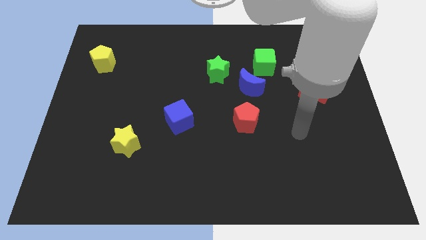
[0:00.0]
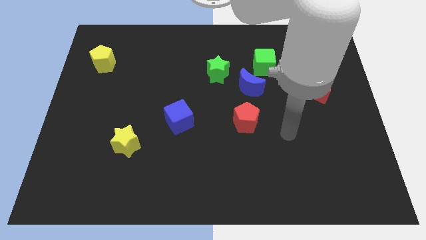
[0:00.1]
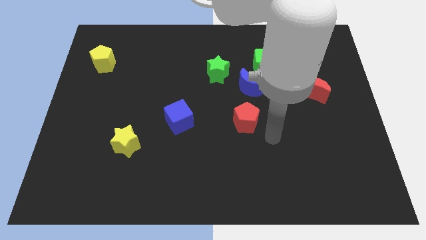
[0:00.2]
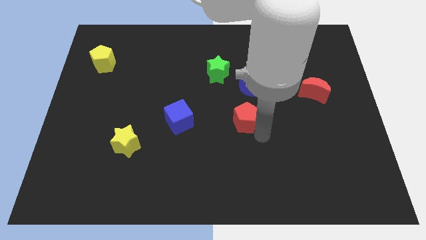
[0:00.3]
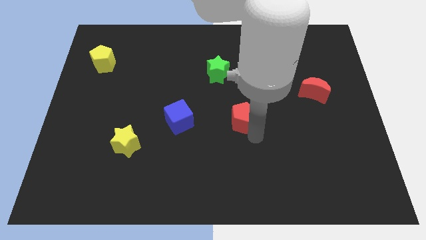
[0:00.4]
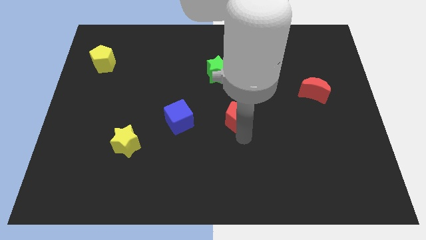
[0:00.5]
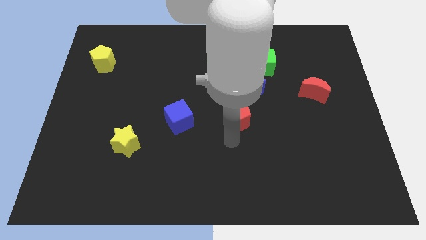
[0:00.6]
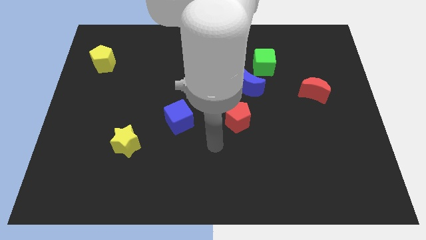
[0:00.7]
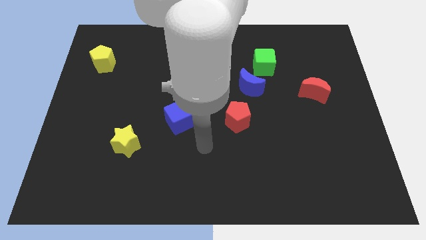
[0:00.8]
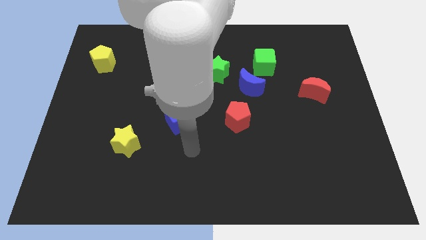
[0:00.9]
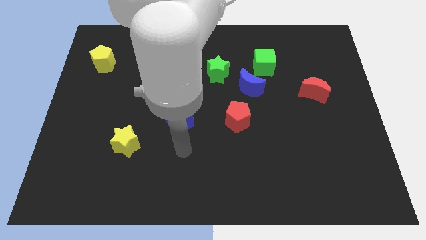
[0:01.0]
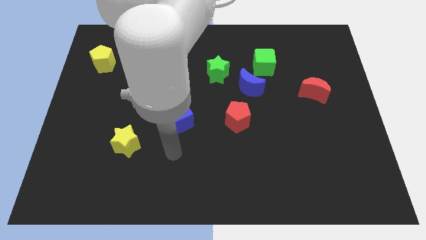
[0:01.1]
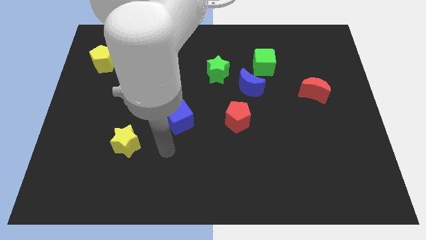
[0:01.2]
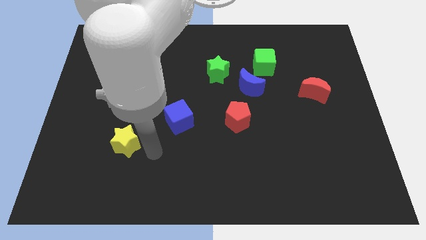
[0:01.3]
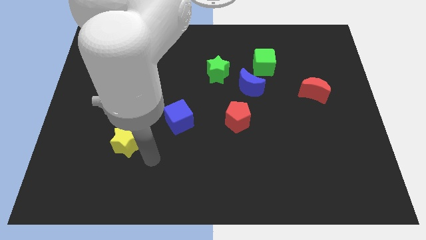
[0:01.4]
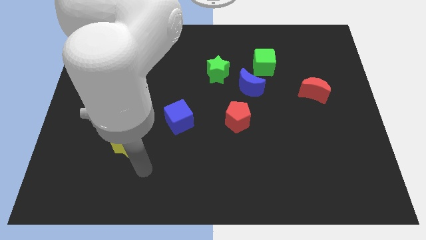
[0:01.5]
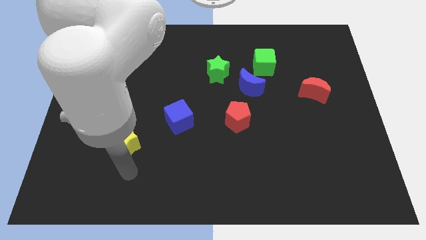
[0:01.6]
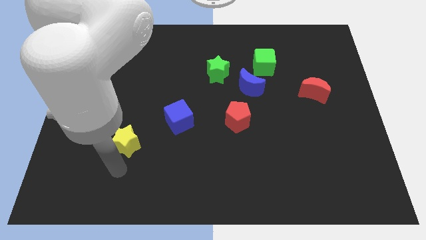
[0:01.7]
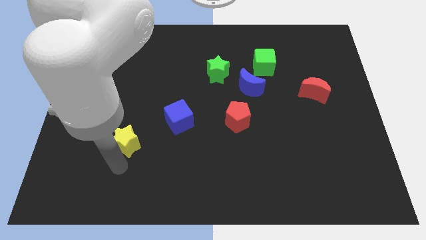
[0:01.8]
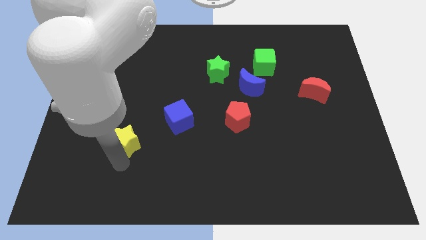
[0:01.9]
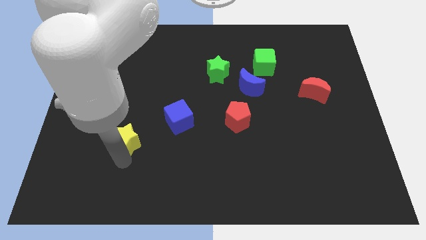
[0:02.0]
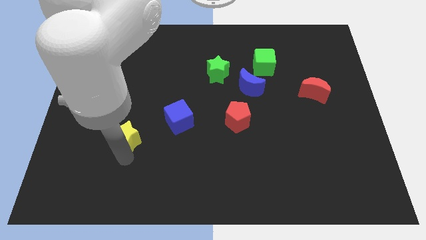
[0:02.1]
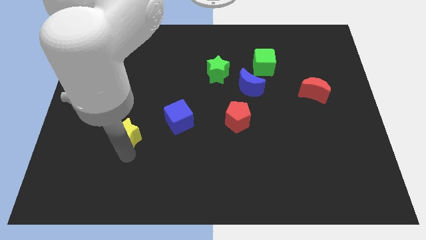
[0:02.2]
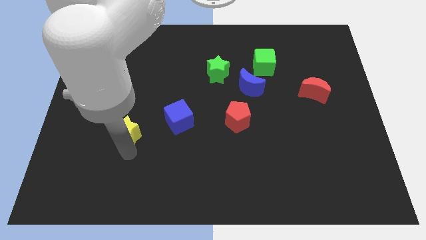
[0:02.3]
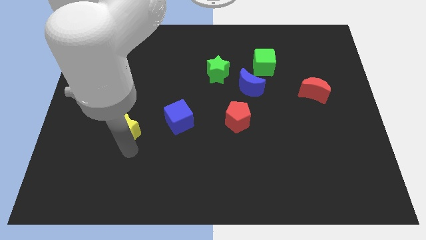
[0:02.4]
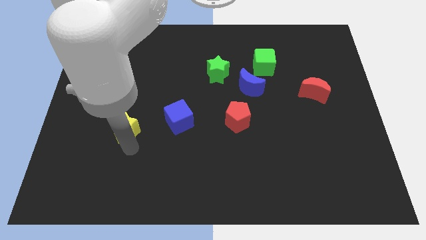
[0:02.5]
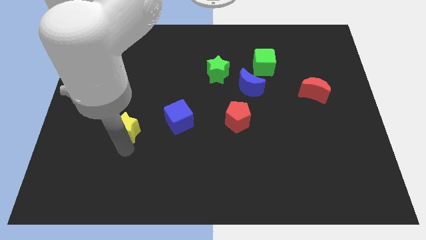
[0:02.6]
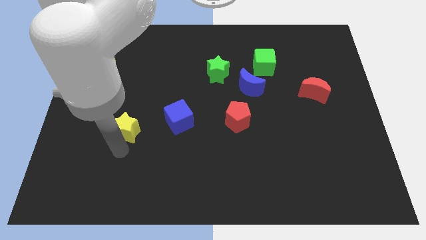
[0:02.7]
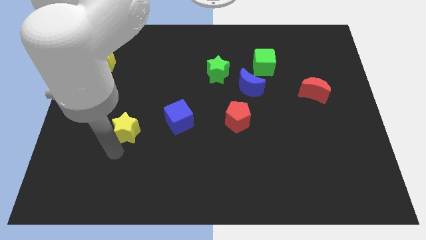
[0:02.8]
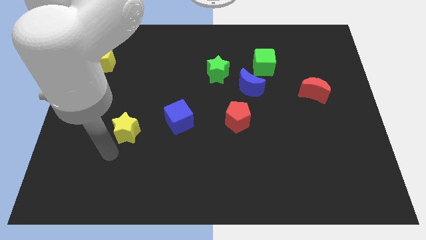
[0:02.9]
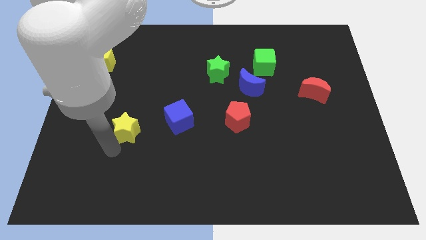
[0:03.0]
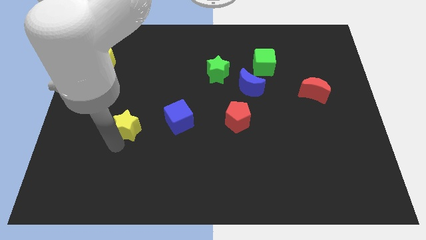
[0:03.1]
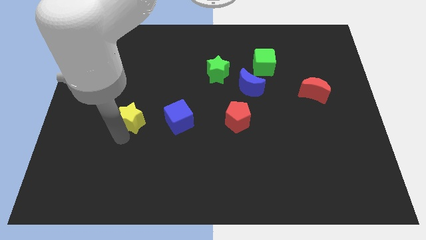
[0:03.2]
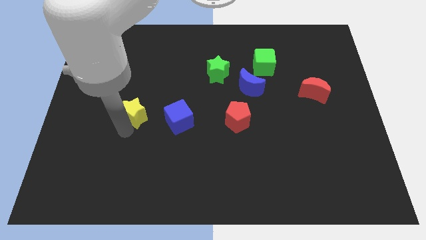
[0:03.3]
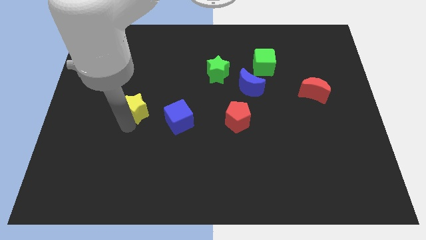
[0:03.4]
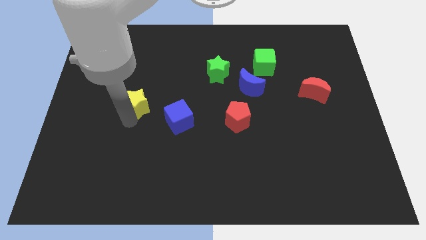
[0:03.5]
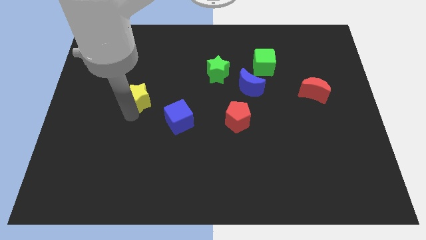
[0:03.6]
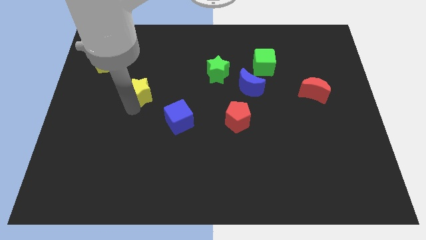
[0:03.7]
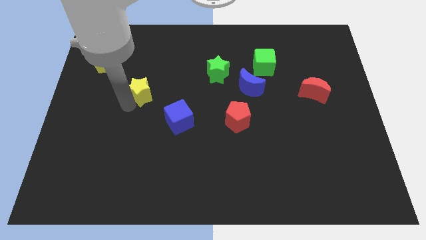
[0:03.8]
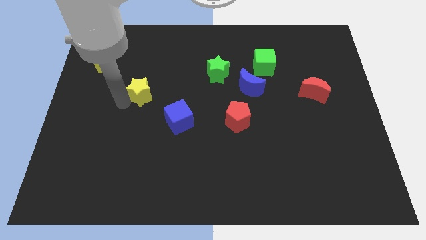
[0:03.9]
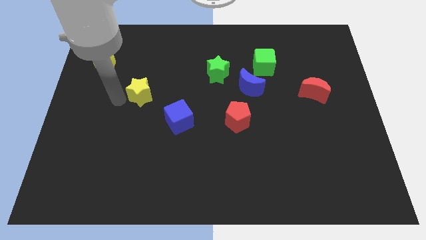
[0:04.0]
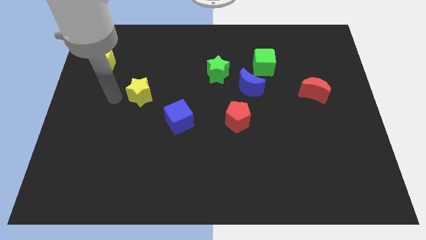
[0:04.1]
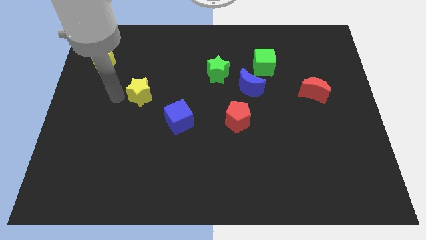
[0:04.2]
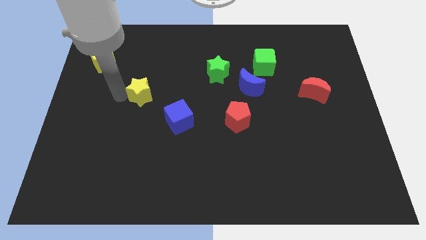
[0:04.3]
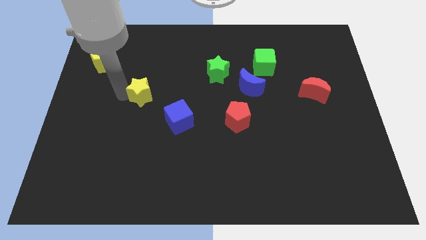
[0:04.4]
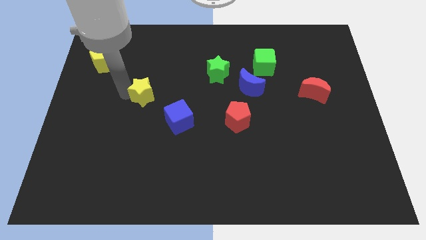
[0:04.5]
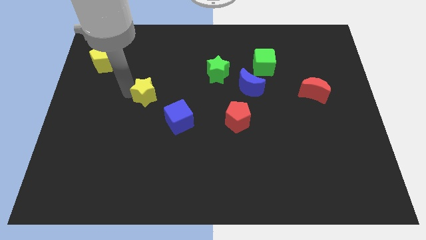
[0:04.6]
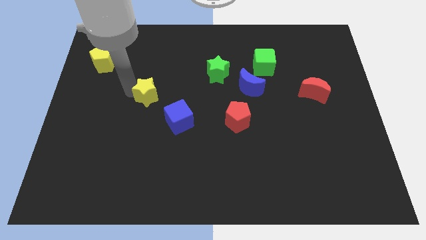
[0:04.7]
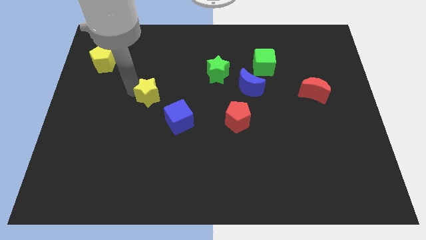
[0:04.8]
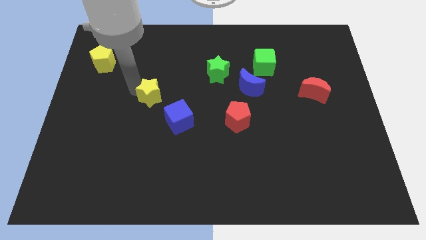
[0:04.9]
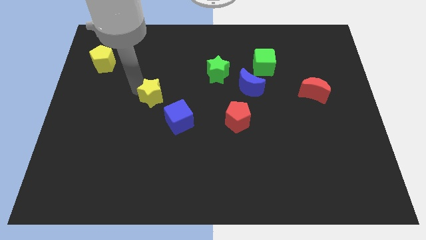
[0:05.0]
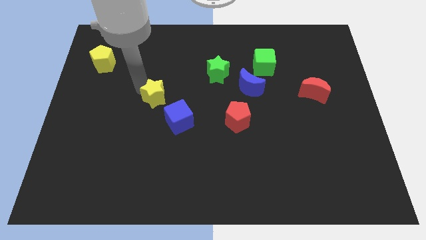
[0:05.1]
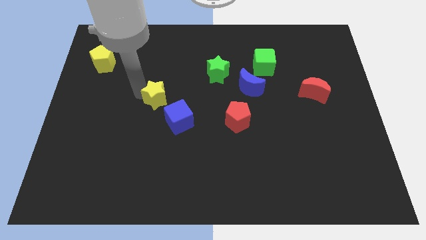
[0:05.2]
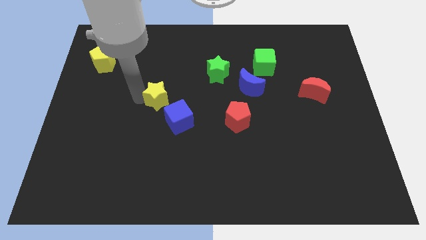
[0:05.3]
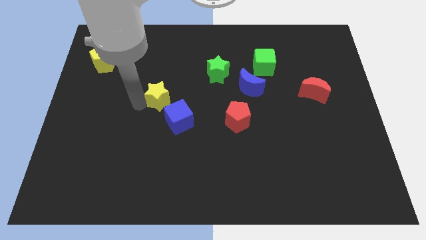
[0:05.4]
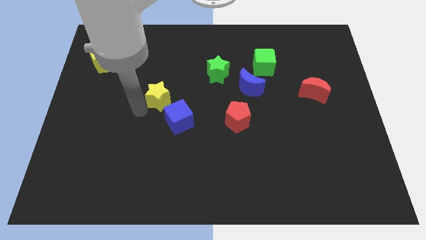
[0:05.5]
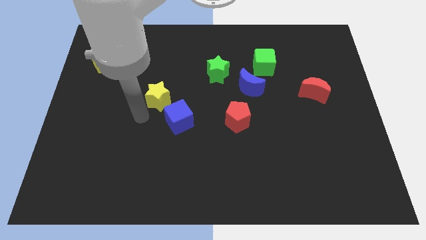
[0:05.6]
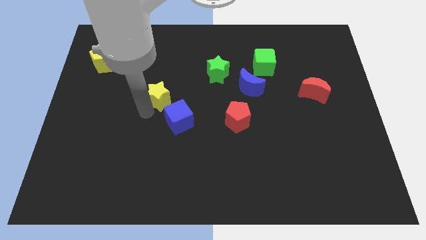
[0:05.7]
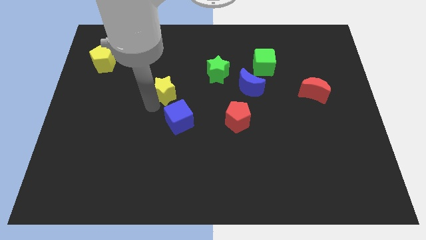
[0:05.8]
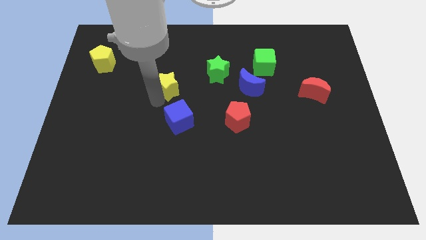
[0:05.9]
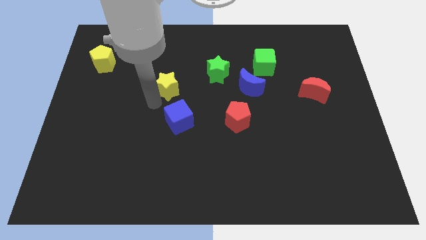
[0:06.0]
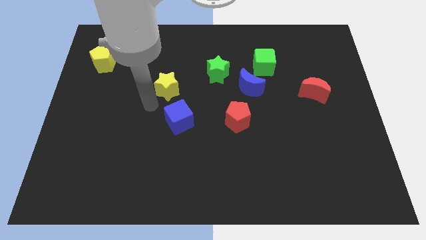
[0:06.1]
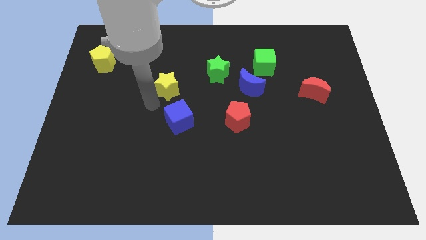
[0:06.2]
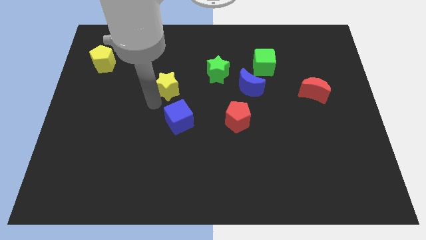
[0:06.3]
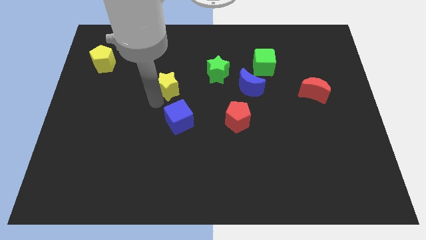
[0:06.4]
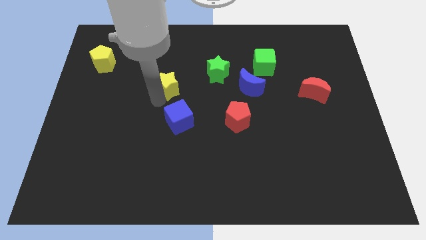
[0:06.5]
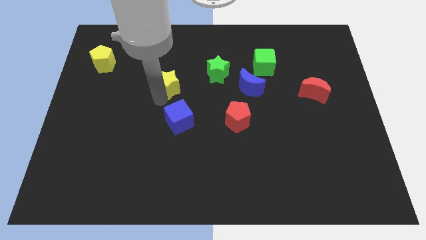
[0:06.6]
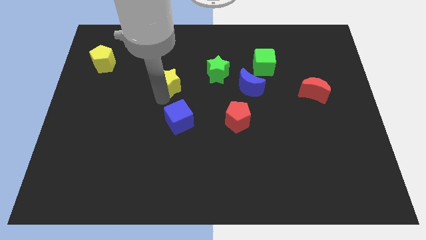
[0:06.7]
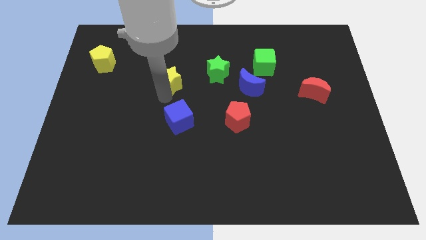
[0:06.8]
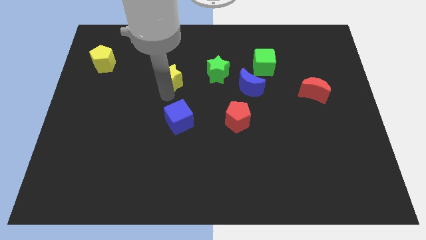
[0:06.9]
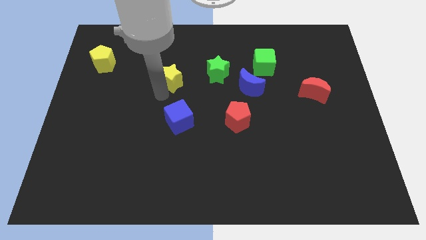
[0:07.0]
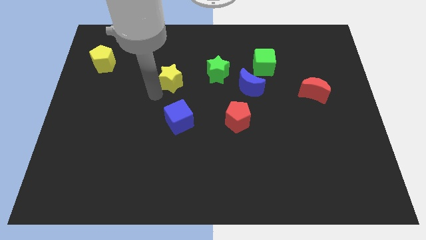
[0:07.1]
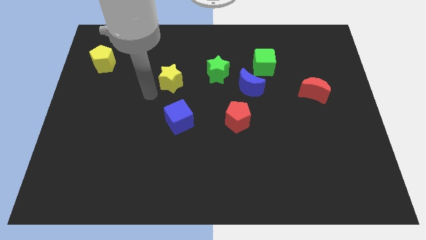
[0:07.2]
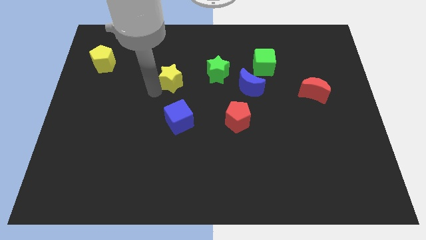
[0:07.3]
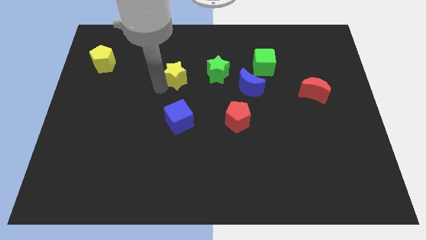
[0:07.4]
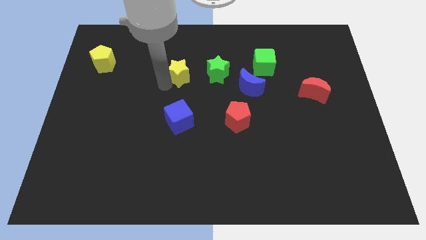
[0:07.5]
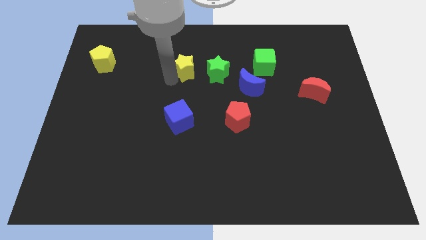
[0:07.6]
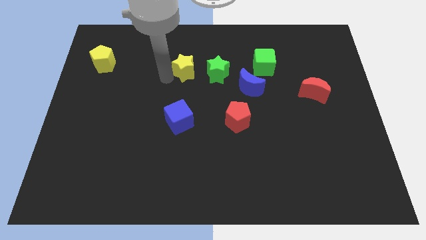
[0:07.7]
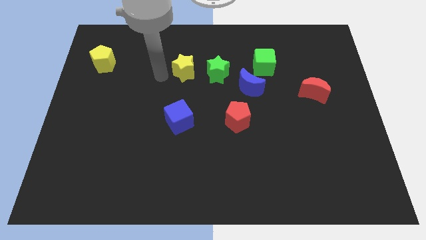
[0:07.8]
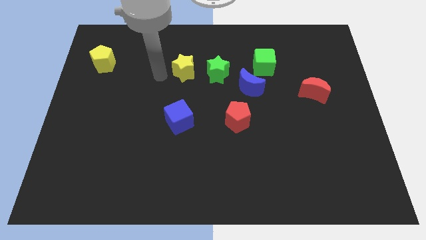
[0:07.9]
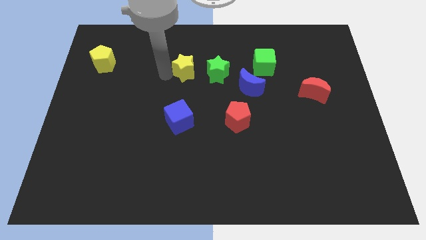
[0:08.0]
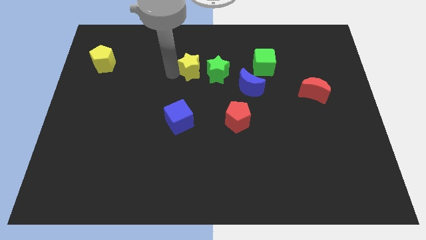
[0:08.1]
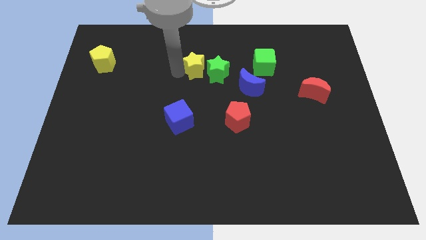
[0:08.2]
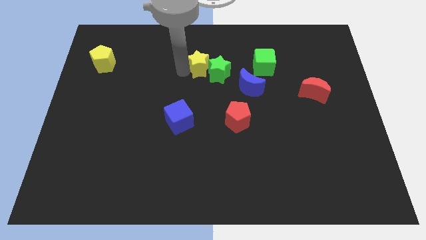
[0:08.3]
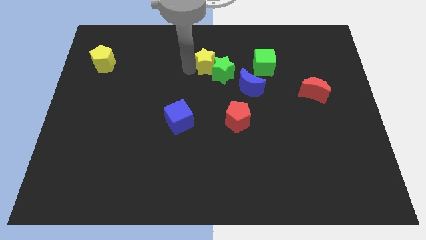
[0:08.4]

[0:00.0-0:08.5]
push the yellow star to the left of the green cube
